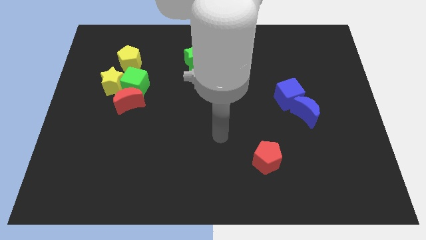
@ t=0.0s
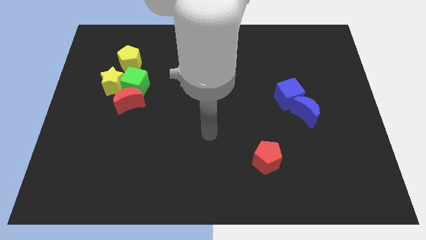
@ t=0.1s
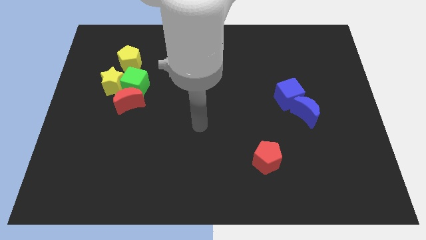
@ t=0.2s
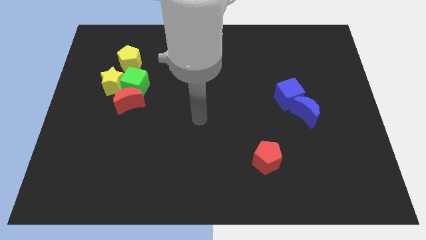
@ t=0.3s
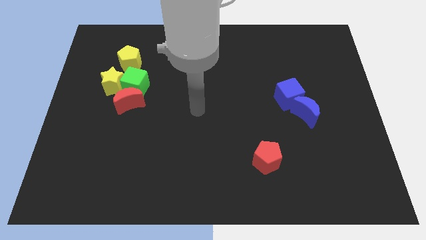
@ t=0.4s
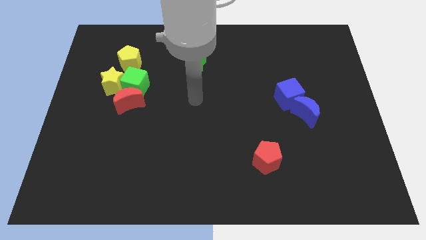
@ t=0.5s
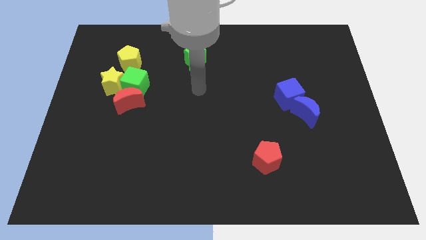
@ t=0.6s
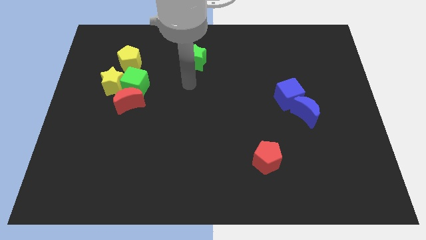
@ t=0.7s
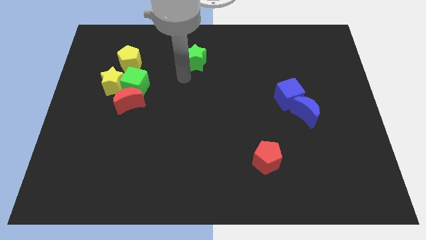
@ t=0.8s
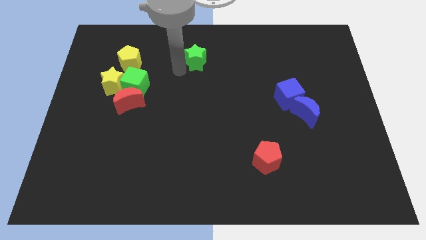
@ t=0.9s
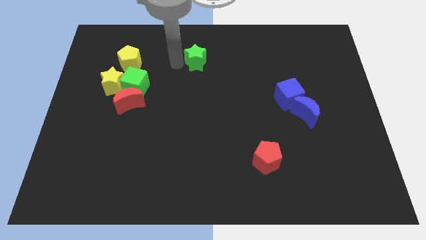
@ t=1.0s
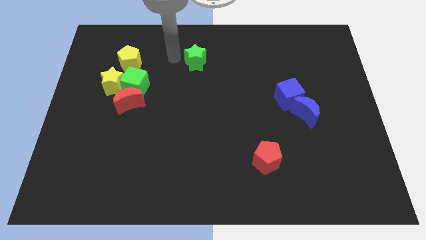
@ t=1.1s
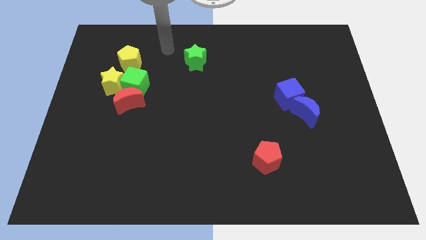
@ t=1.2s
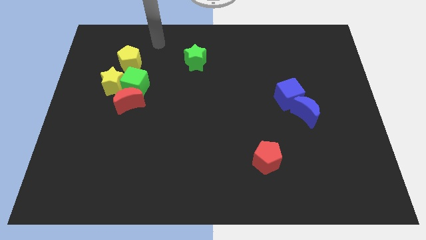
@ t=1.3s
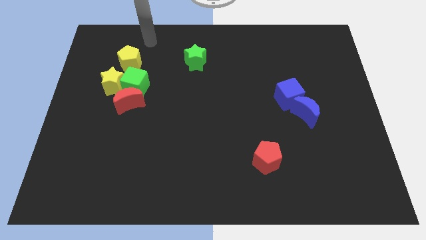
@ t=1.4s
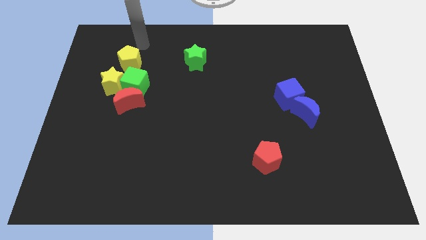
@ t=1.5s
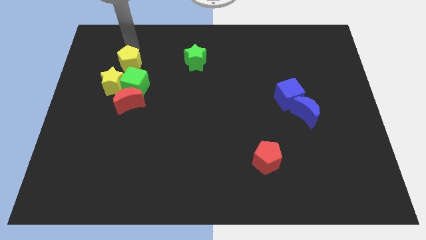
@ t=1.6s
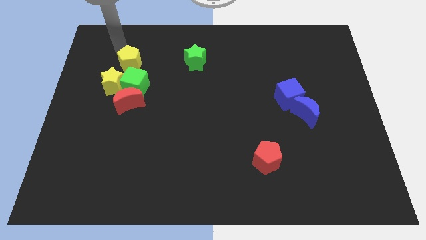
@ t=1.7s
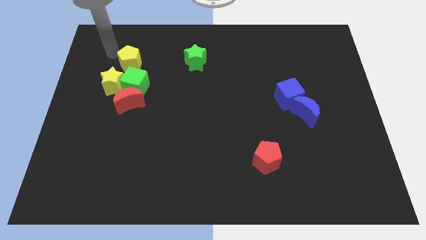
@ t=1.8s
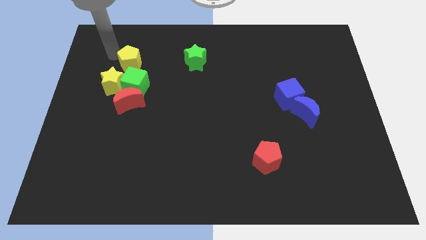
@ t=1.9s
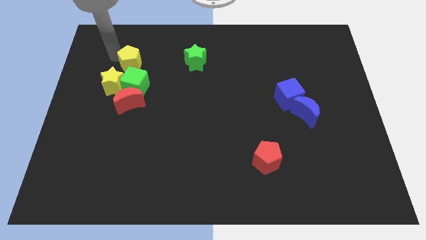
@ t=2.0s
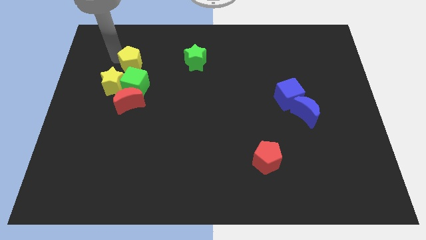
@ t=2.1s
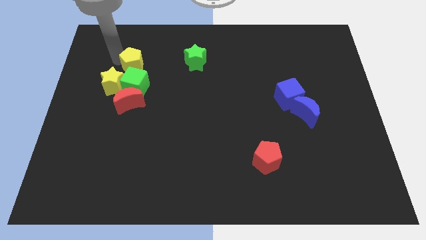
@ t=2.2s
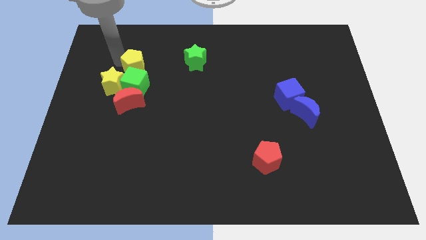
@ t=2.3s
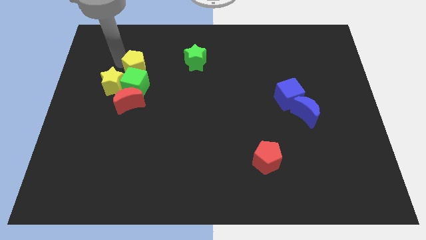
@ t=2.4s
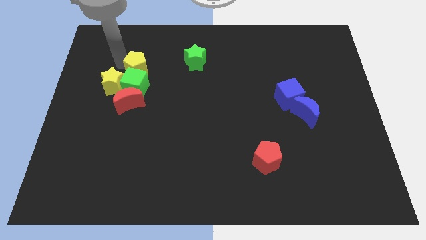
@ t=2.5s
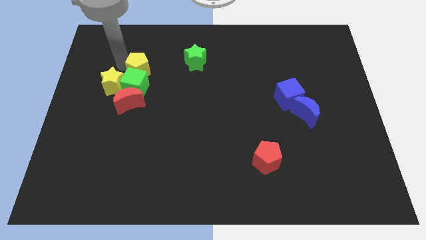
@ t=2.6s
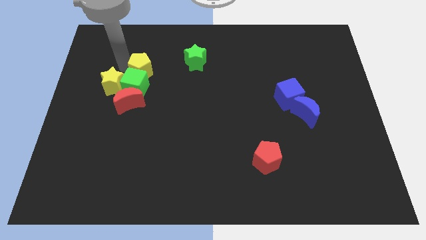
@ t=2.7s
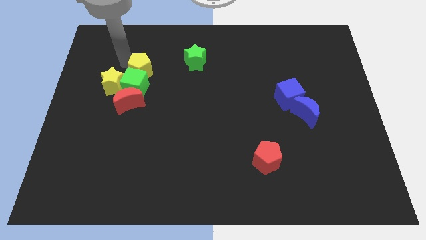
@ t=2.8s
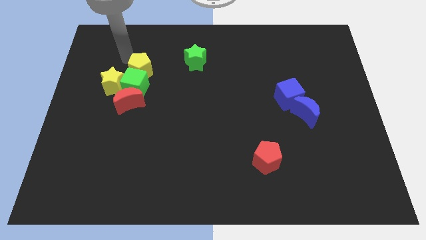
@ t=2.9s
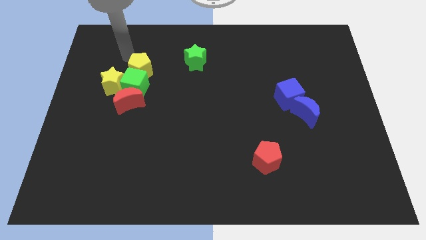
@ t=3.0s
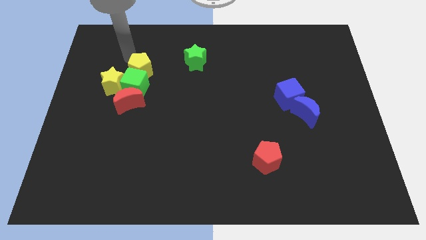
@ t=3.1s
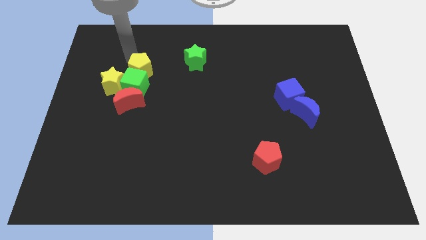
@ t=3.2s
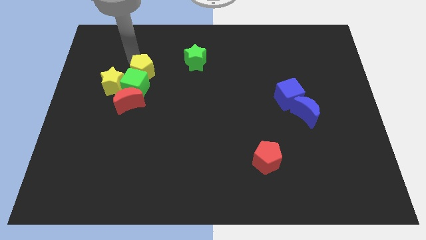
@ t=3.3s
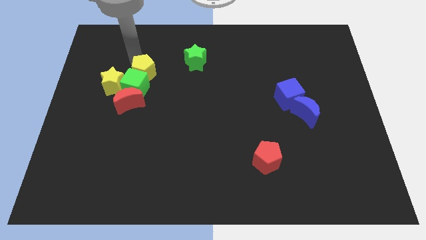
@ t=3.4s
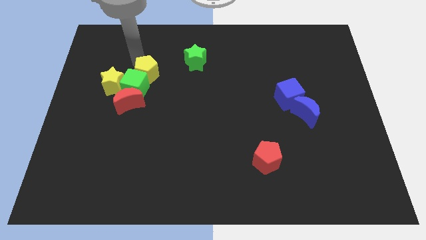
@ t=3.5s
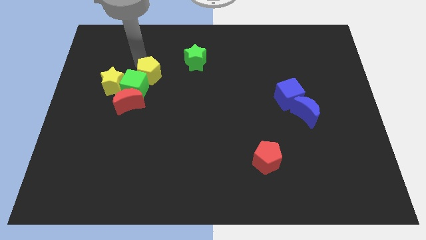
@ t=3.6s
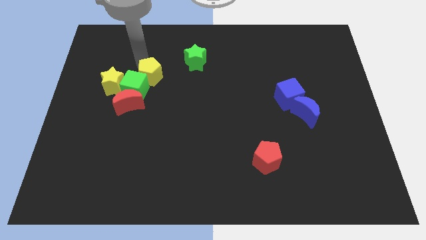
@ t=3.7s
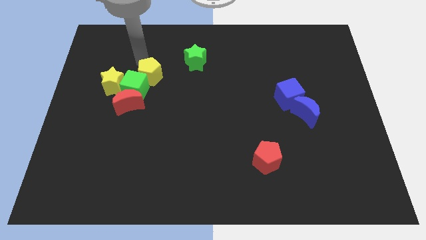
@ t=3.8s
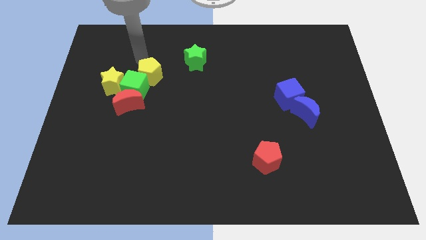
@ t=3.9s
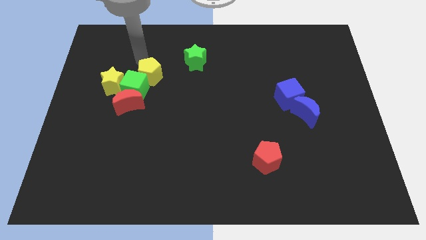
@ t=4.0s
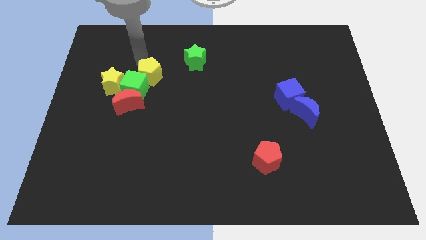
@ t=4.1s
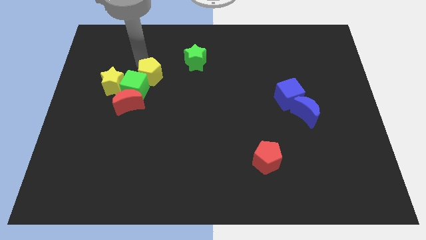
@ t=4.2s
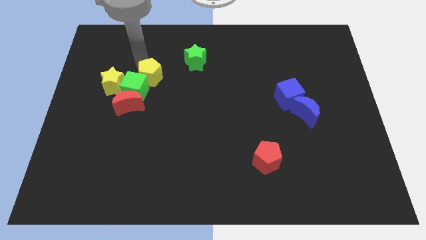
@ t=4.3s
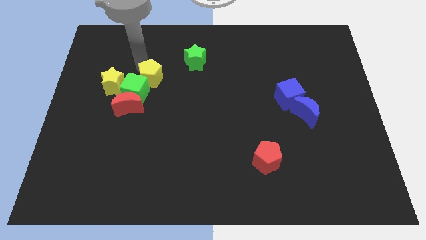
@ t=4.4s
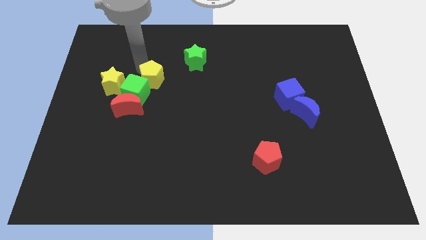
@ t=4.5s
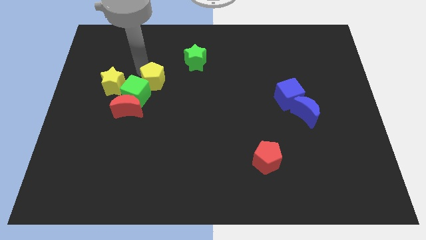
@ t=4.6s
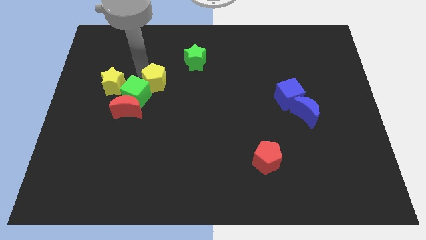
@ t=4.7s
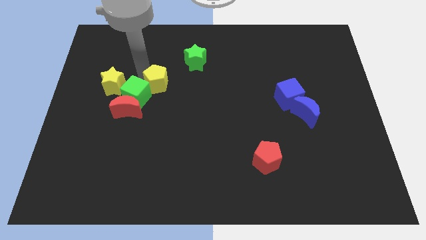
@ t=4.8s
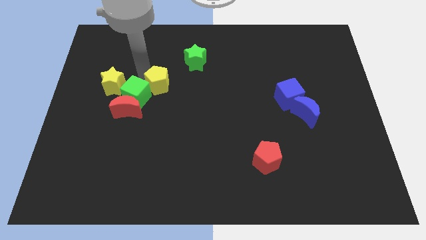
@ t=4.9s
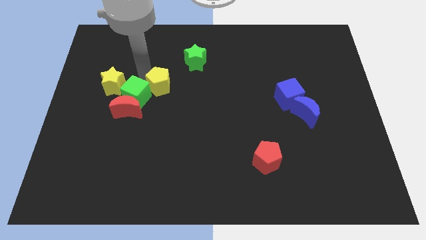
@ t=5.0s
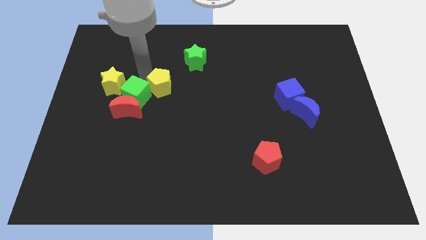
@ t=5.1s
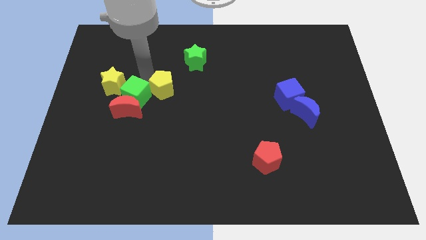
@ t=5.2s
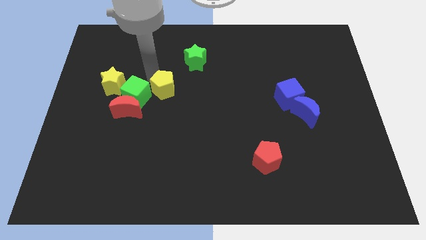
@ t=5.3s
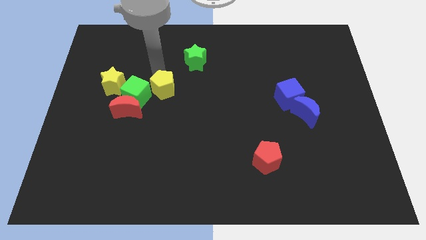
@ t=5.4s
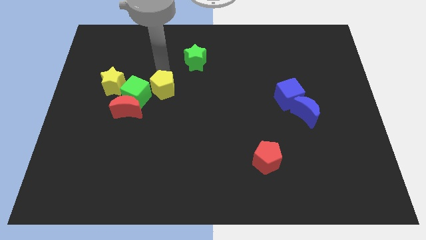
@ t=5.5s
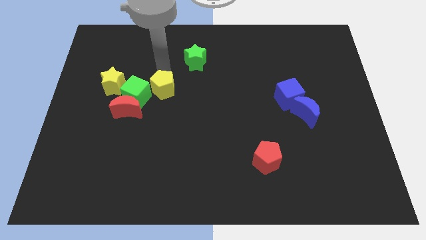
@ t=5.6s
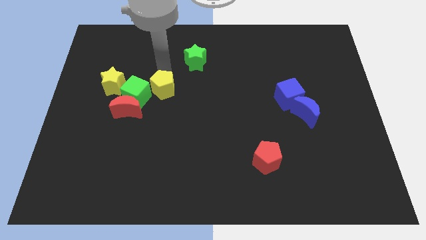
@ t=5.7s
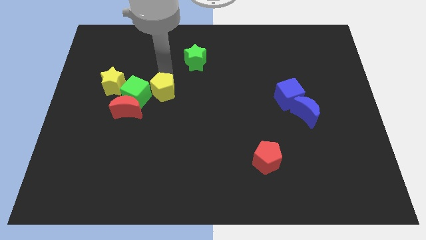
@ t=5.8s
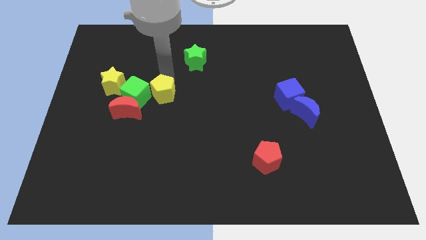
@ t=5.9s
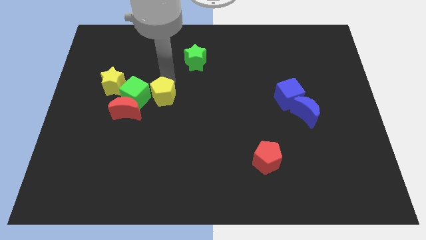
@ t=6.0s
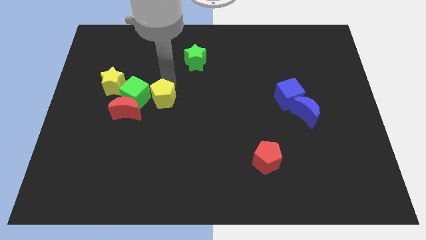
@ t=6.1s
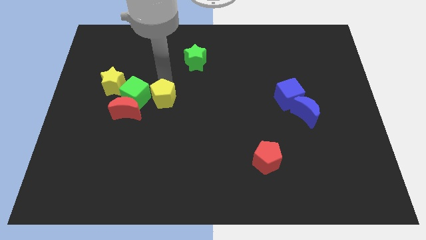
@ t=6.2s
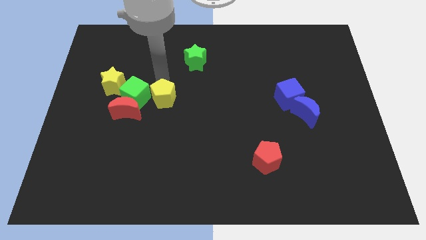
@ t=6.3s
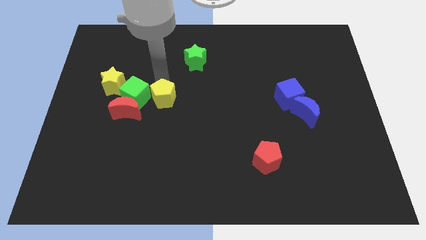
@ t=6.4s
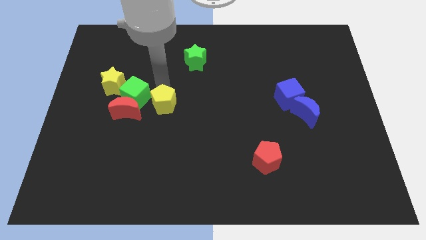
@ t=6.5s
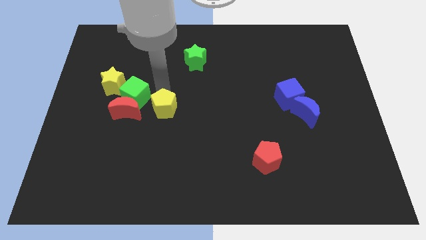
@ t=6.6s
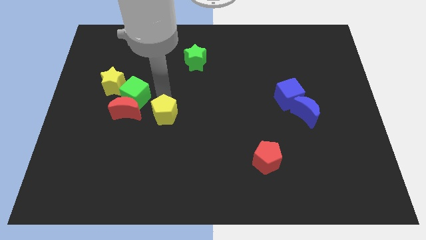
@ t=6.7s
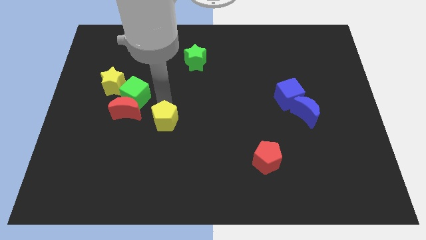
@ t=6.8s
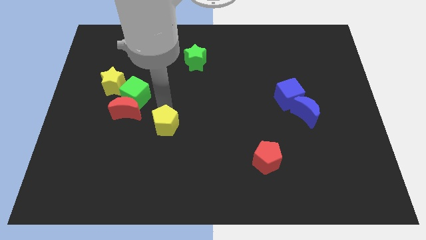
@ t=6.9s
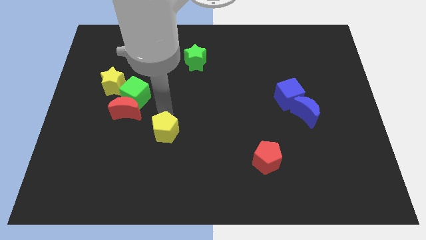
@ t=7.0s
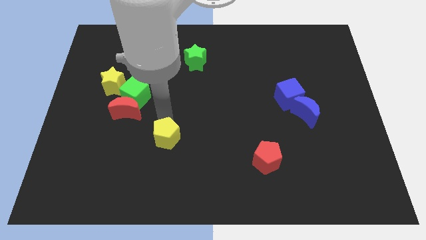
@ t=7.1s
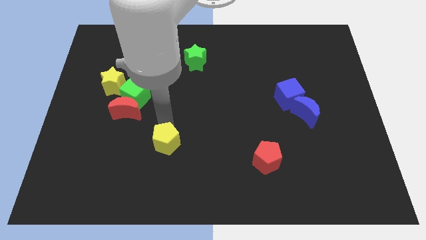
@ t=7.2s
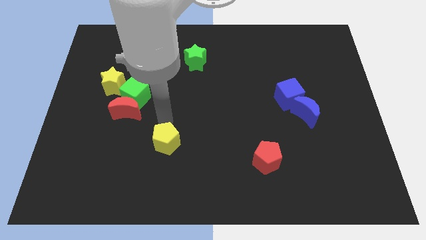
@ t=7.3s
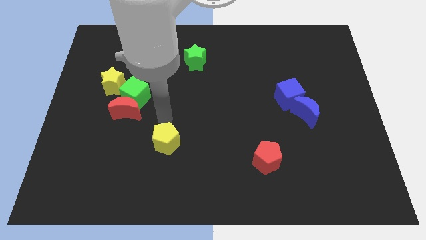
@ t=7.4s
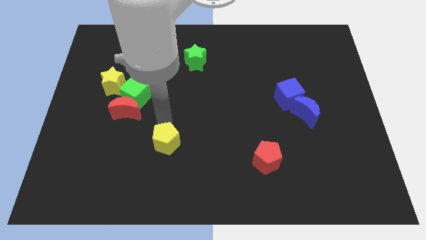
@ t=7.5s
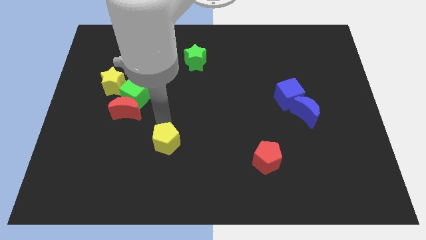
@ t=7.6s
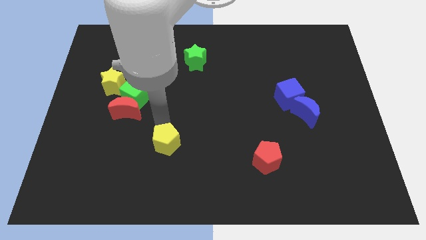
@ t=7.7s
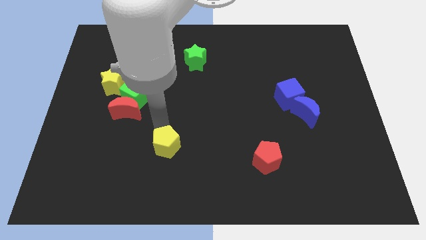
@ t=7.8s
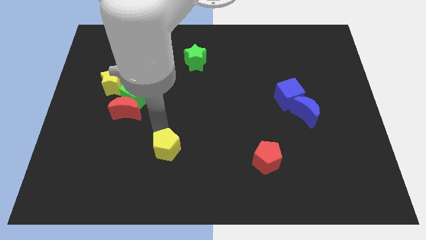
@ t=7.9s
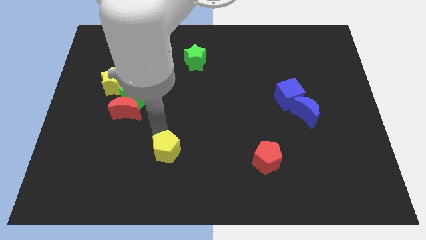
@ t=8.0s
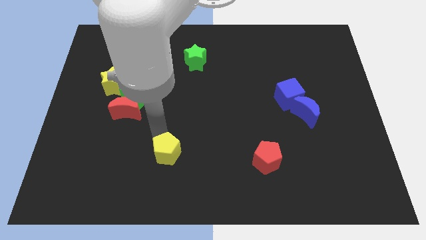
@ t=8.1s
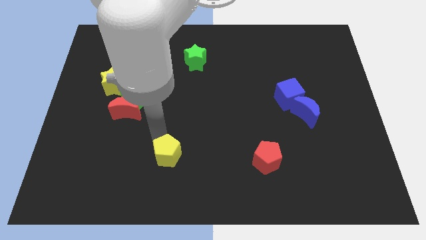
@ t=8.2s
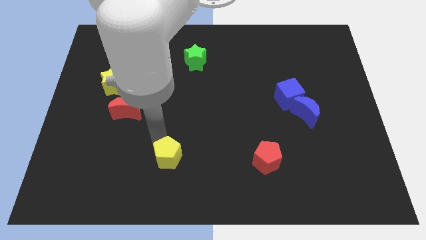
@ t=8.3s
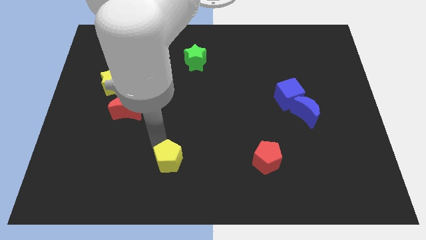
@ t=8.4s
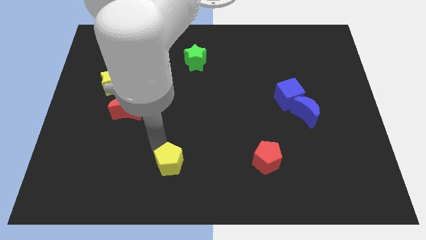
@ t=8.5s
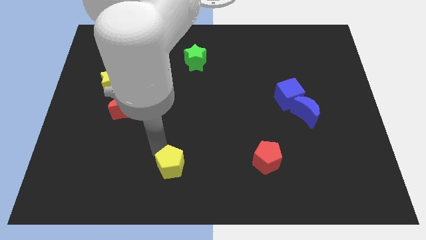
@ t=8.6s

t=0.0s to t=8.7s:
slide the yellow pentagon to the bottom side
